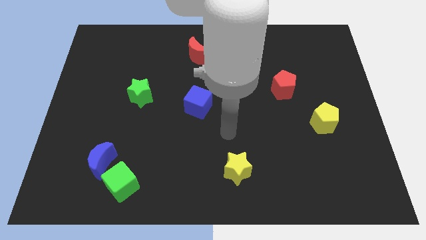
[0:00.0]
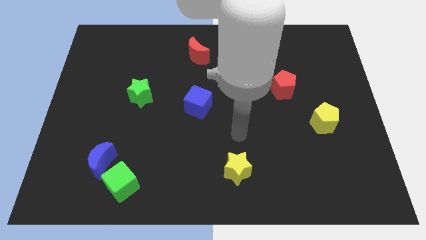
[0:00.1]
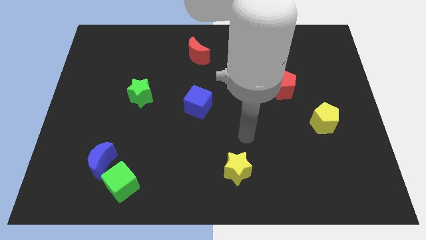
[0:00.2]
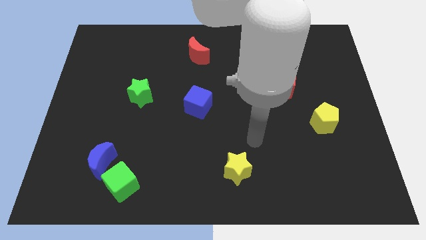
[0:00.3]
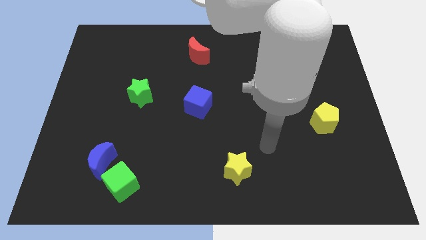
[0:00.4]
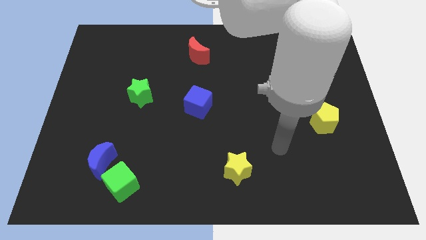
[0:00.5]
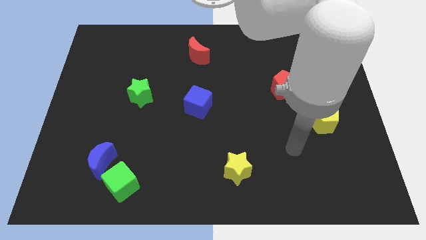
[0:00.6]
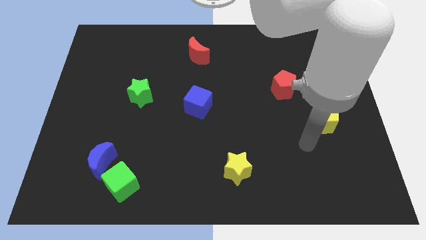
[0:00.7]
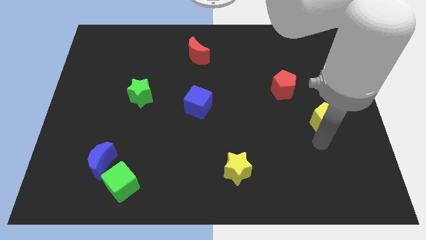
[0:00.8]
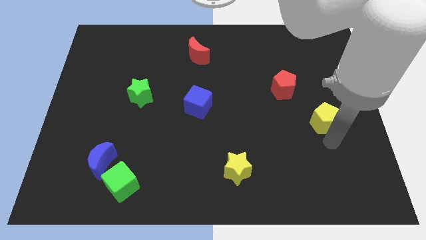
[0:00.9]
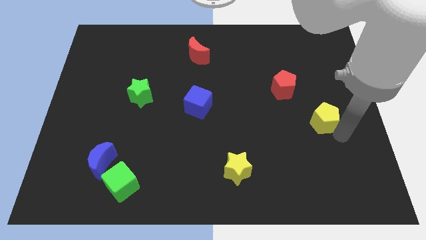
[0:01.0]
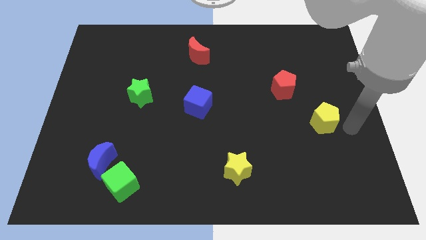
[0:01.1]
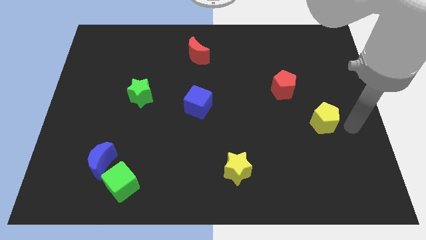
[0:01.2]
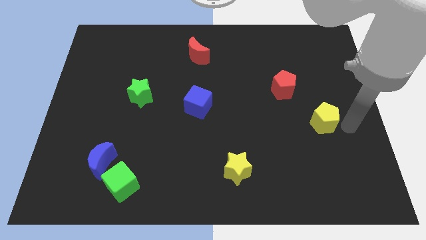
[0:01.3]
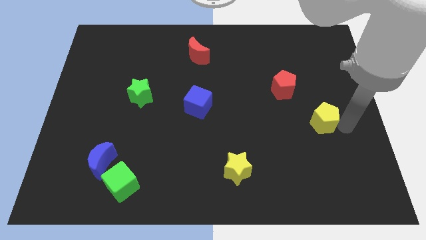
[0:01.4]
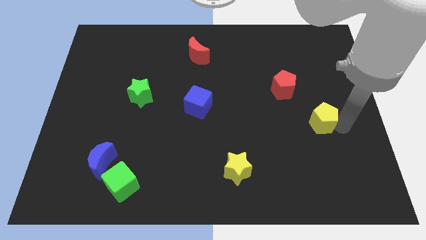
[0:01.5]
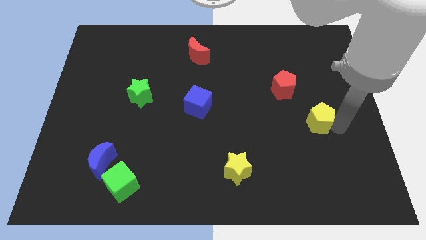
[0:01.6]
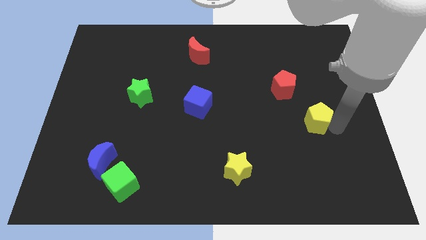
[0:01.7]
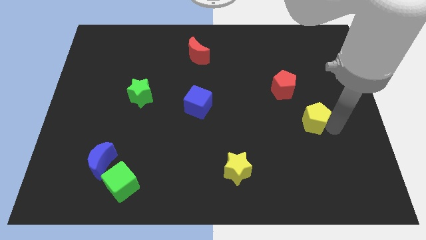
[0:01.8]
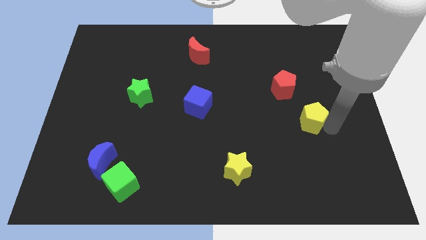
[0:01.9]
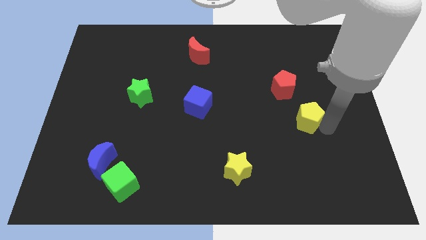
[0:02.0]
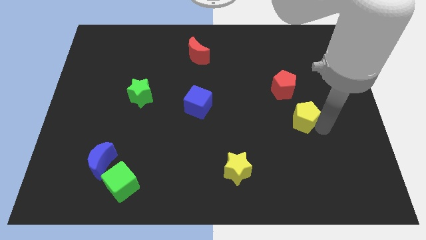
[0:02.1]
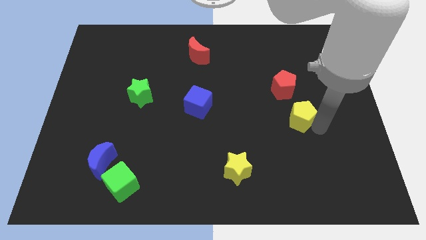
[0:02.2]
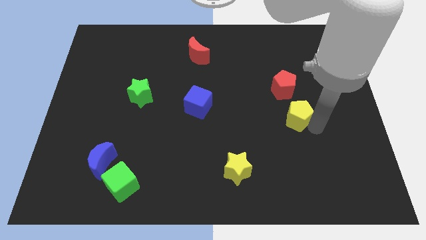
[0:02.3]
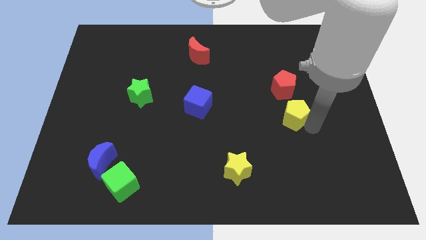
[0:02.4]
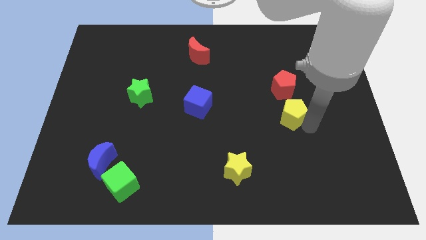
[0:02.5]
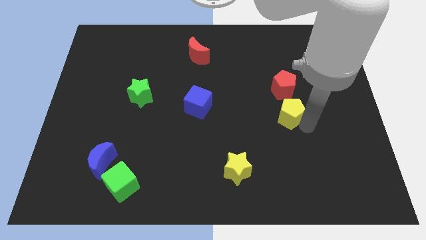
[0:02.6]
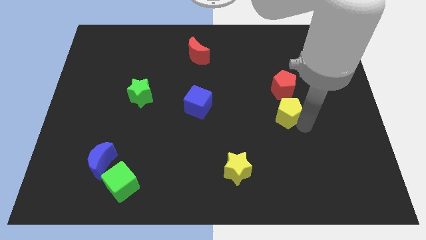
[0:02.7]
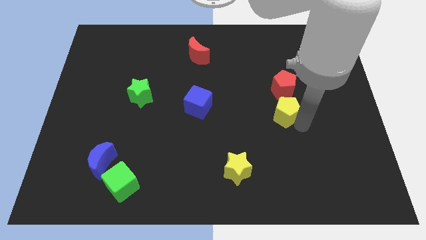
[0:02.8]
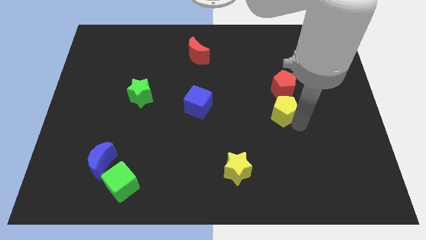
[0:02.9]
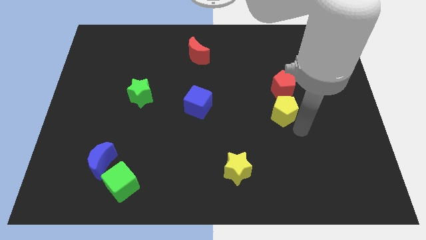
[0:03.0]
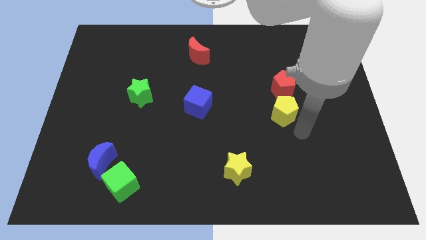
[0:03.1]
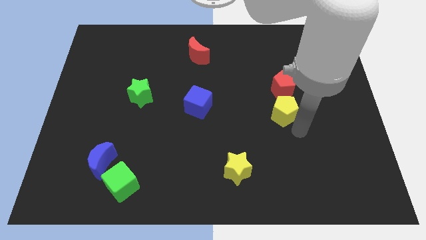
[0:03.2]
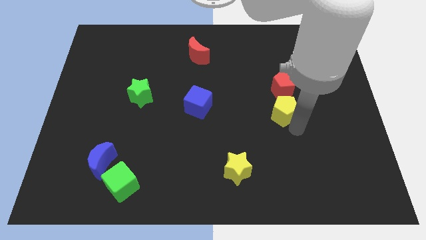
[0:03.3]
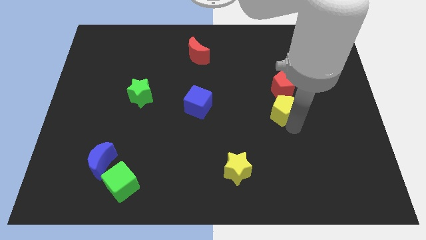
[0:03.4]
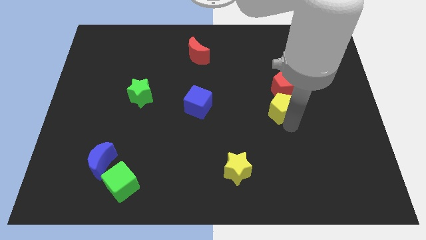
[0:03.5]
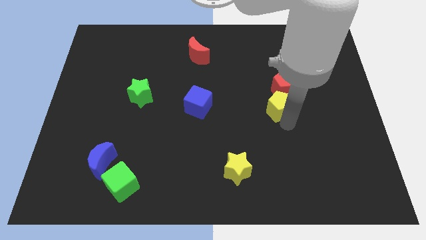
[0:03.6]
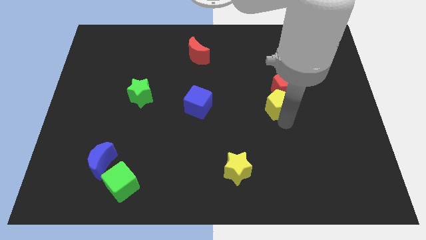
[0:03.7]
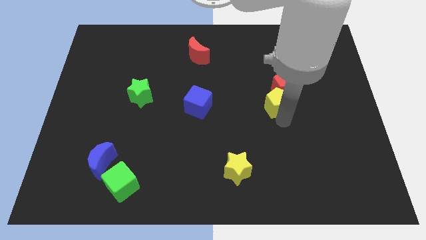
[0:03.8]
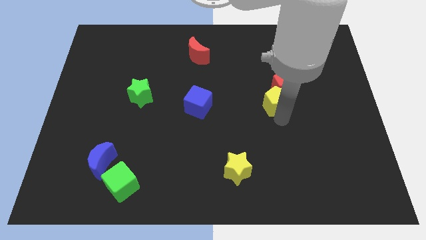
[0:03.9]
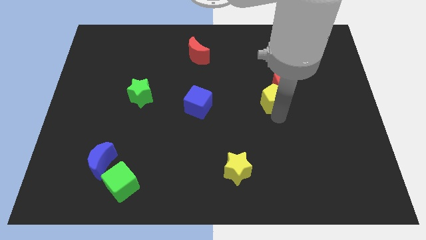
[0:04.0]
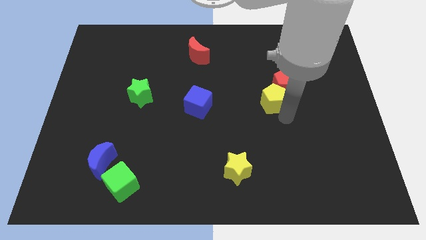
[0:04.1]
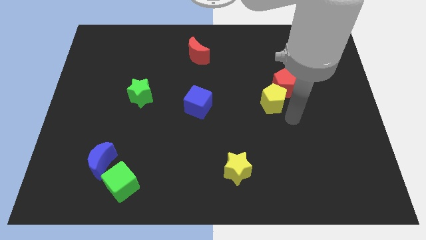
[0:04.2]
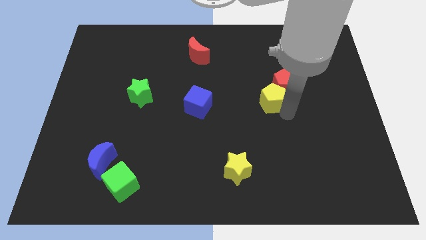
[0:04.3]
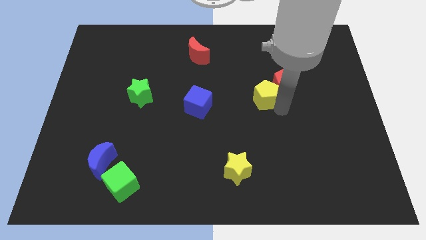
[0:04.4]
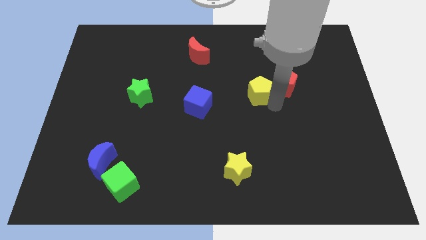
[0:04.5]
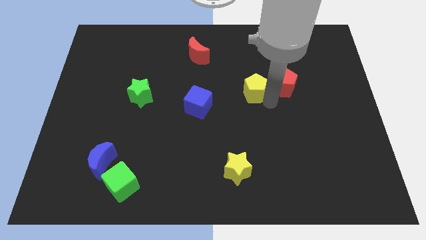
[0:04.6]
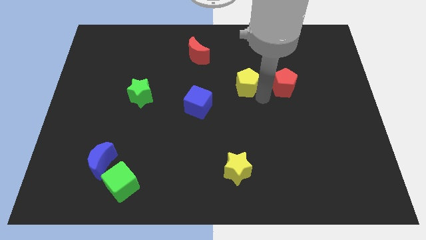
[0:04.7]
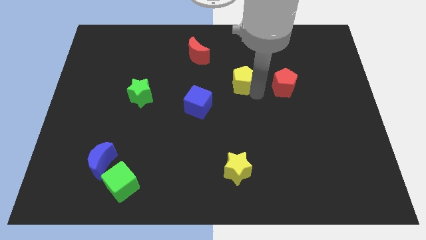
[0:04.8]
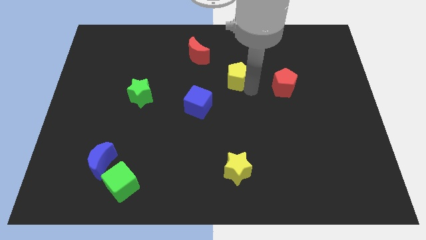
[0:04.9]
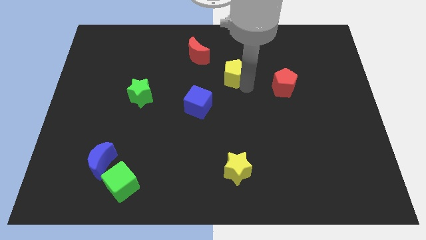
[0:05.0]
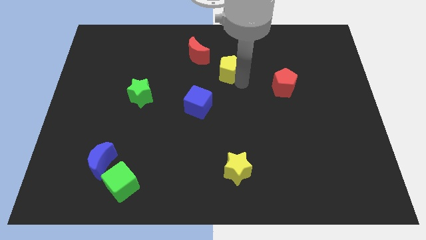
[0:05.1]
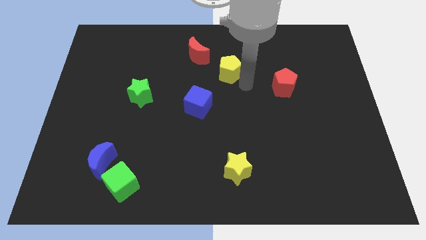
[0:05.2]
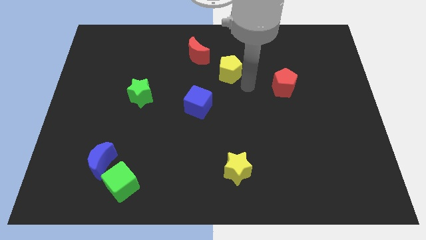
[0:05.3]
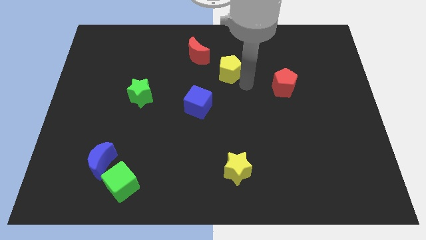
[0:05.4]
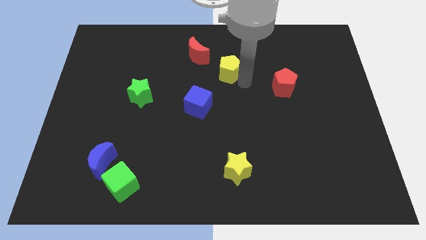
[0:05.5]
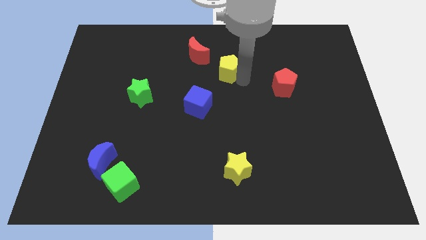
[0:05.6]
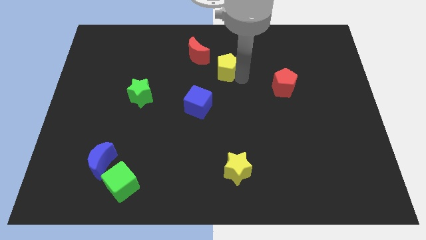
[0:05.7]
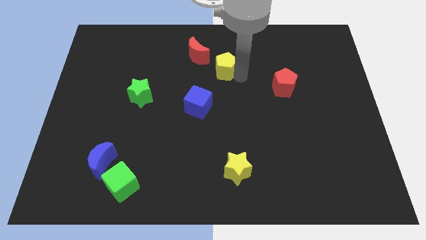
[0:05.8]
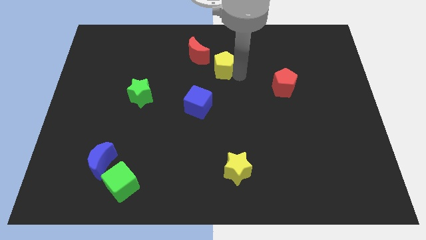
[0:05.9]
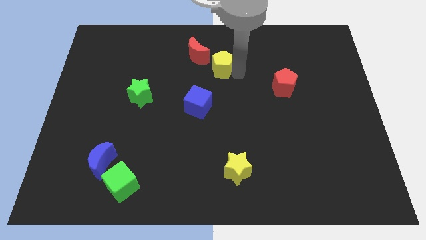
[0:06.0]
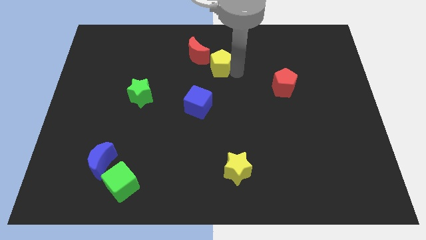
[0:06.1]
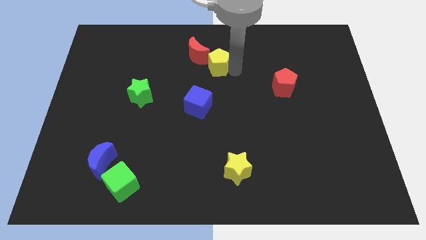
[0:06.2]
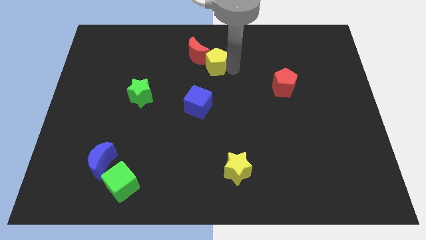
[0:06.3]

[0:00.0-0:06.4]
put the yellow pentagon next to the red moon
